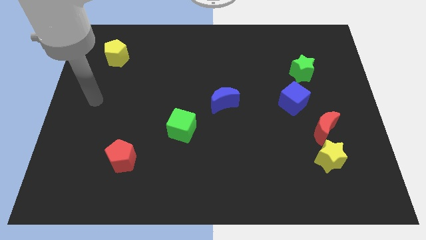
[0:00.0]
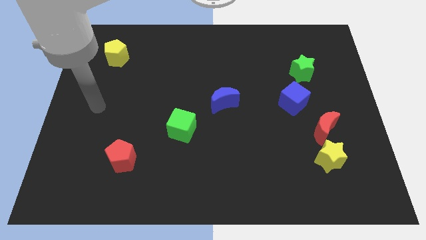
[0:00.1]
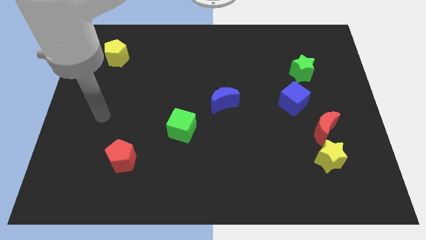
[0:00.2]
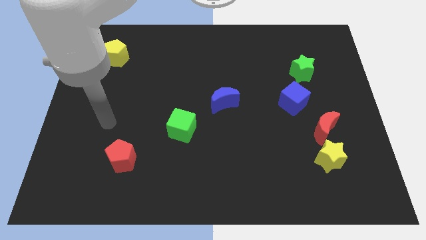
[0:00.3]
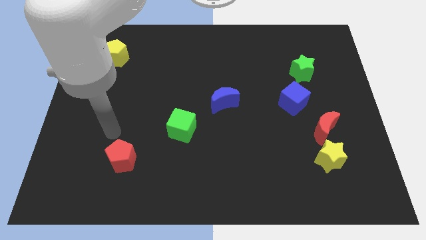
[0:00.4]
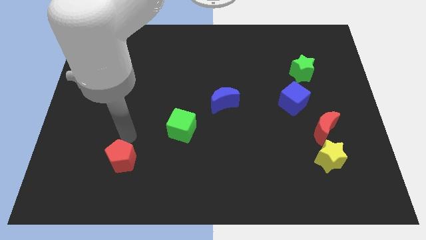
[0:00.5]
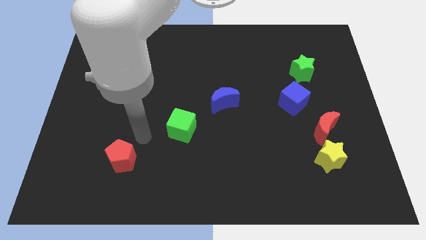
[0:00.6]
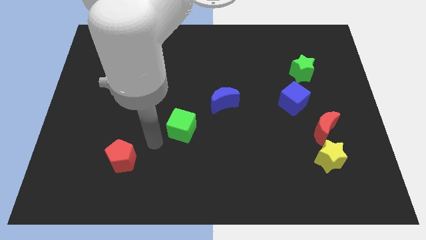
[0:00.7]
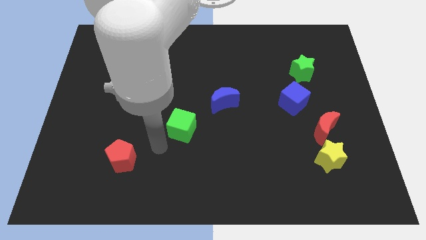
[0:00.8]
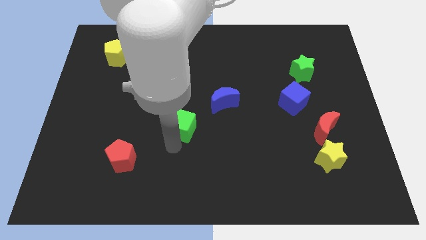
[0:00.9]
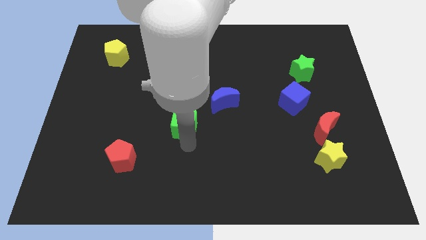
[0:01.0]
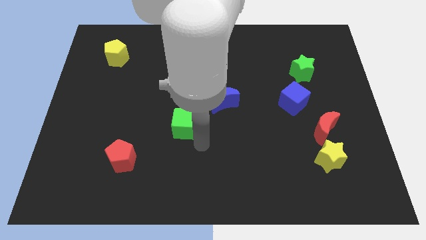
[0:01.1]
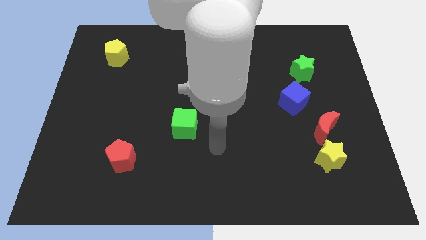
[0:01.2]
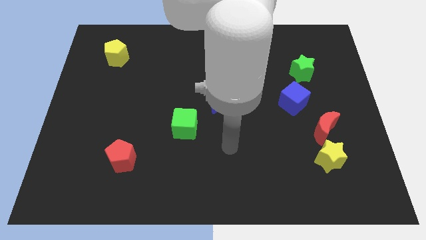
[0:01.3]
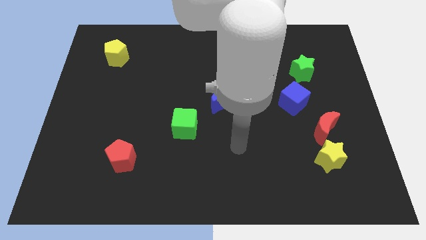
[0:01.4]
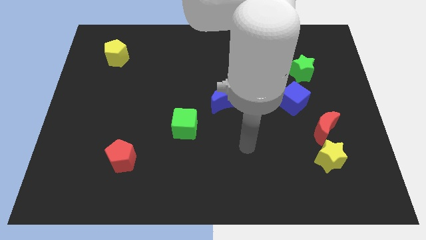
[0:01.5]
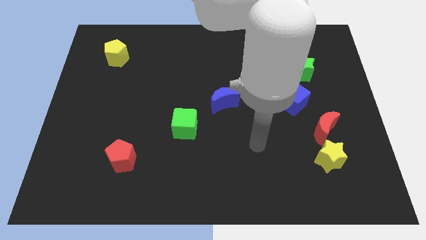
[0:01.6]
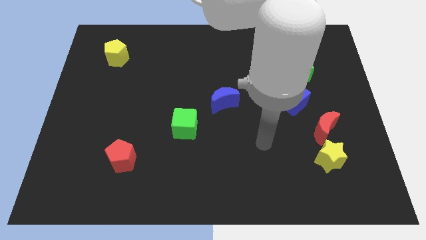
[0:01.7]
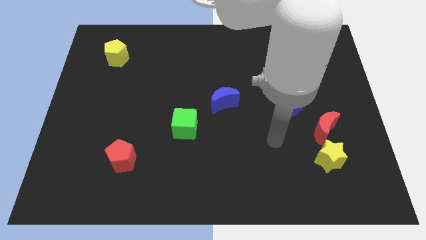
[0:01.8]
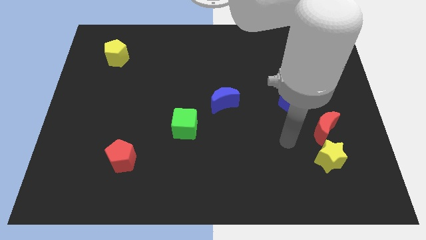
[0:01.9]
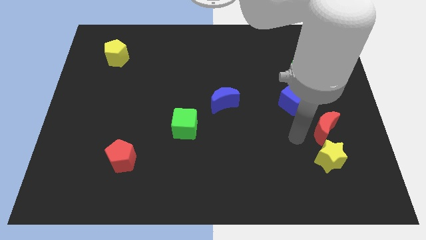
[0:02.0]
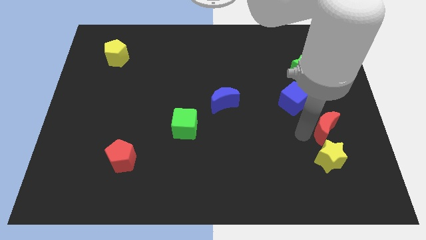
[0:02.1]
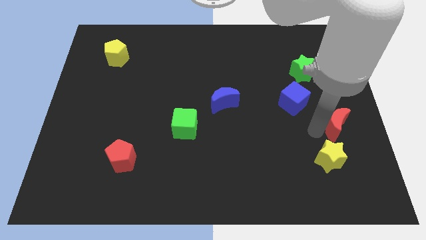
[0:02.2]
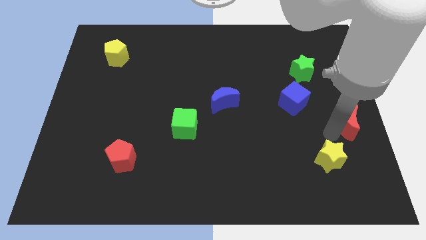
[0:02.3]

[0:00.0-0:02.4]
move the yellow star away from the red moon

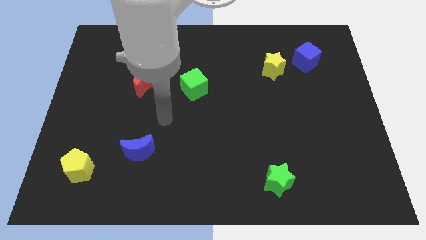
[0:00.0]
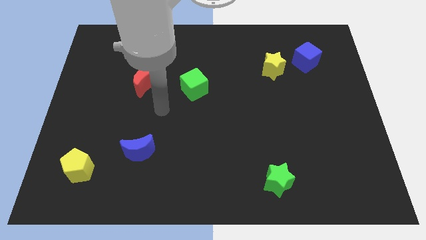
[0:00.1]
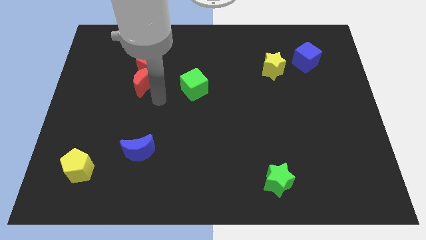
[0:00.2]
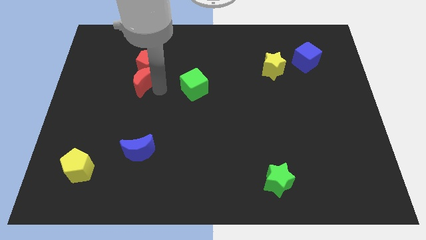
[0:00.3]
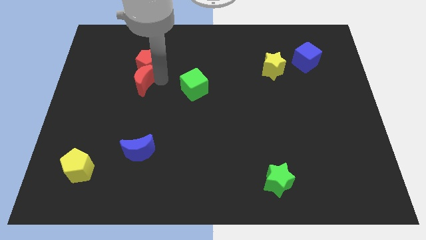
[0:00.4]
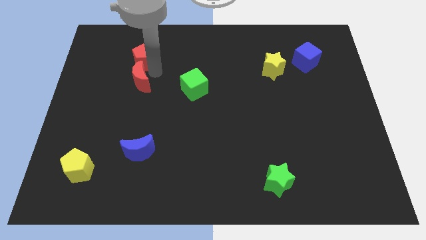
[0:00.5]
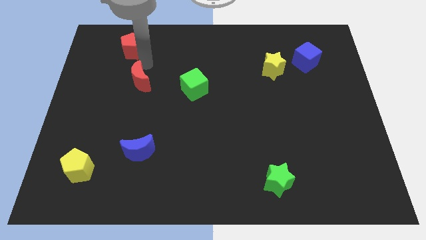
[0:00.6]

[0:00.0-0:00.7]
separate the red moon from the red pentagon

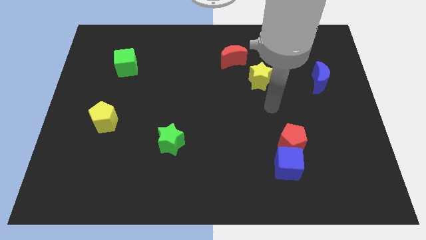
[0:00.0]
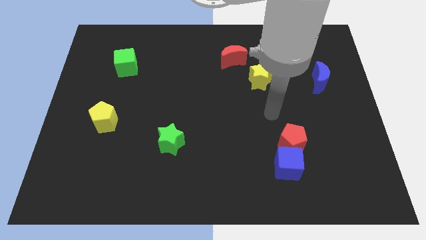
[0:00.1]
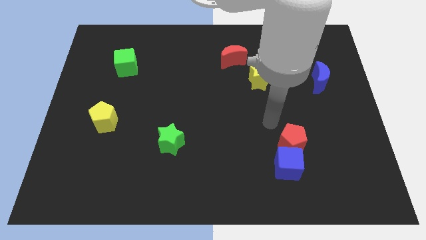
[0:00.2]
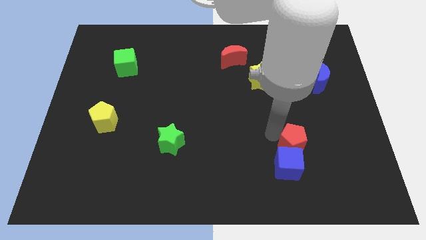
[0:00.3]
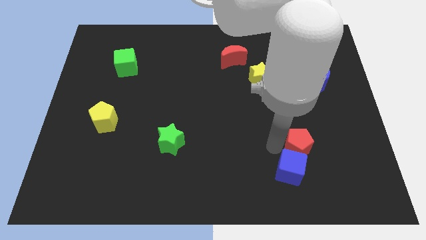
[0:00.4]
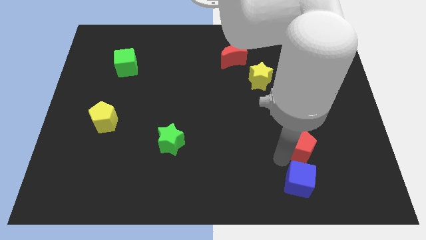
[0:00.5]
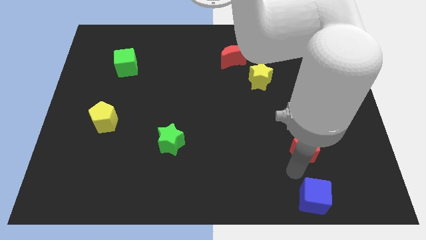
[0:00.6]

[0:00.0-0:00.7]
pull the red pentagon apart from the blue cube

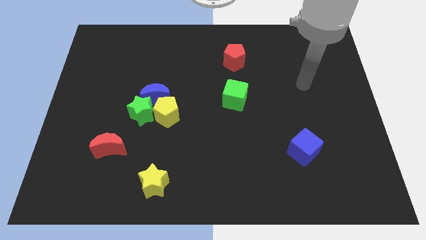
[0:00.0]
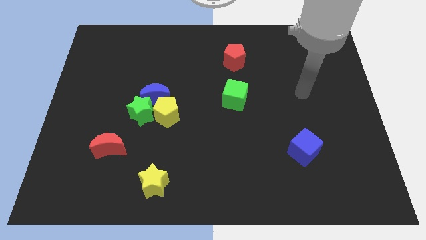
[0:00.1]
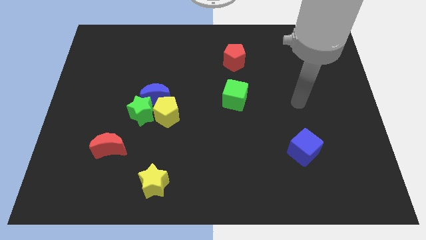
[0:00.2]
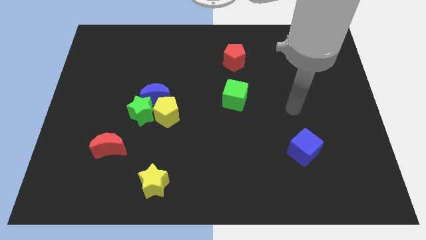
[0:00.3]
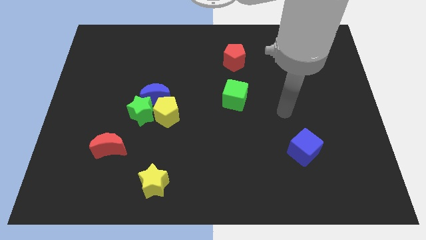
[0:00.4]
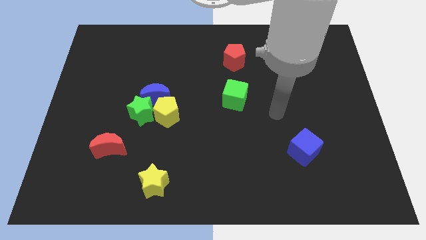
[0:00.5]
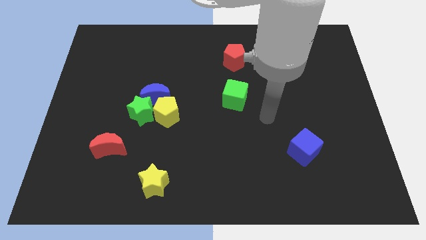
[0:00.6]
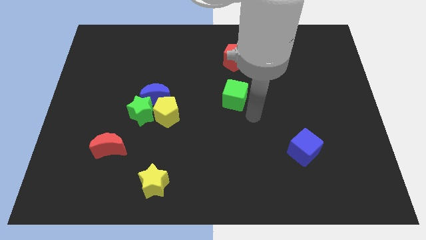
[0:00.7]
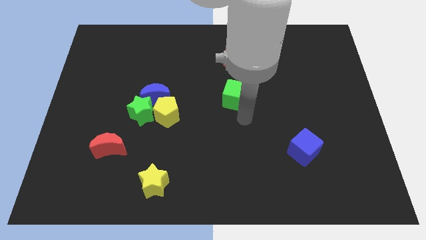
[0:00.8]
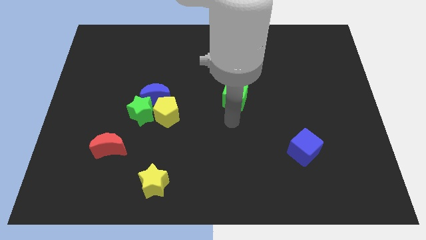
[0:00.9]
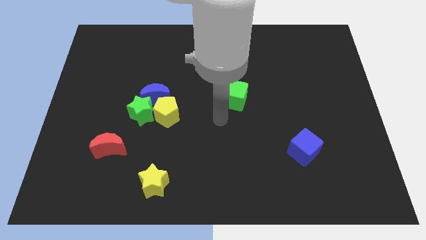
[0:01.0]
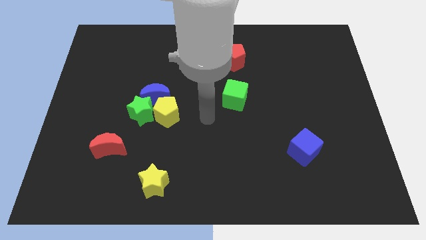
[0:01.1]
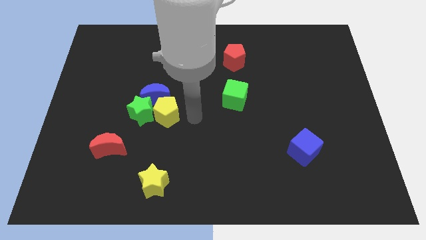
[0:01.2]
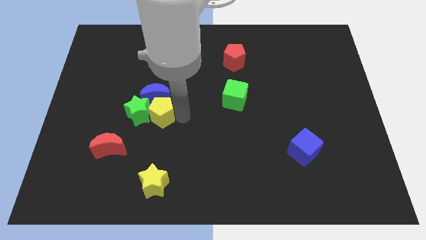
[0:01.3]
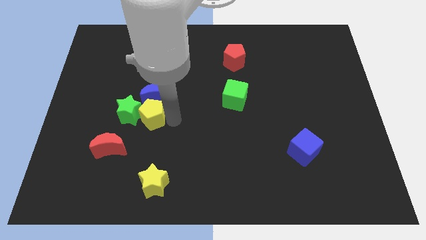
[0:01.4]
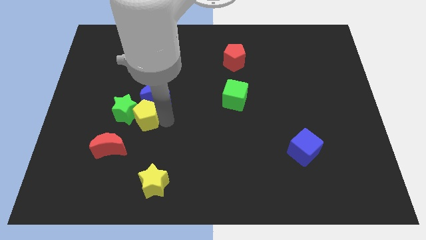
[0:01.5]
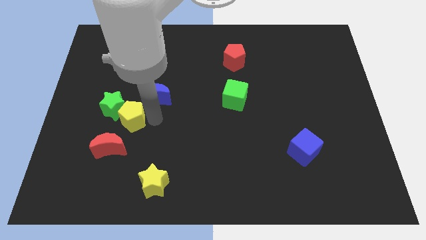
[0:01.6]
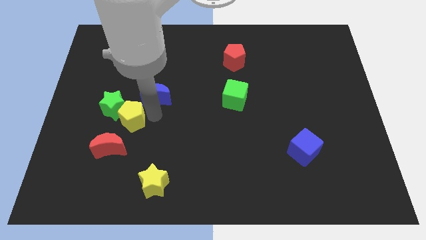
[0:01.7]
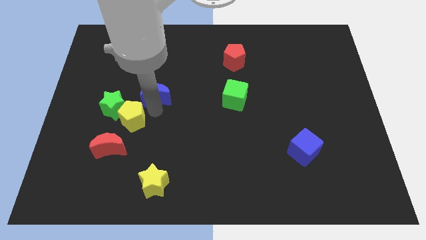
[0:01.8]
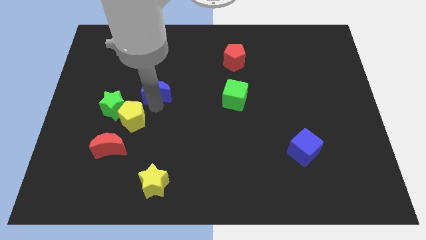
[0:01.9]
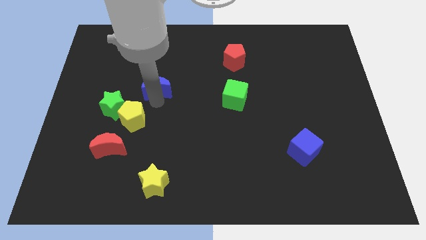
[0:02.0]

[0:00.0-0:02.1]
move the blue moon away from the green star and yellow pentagon

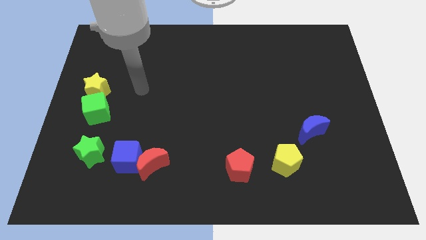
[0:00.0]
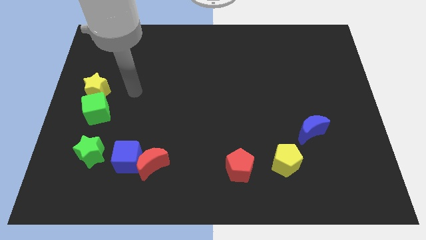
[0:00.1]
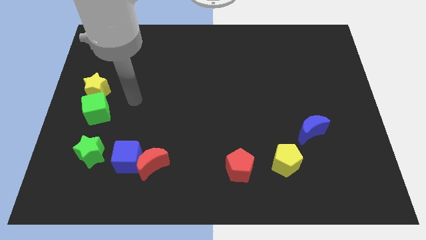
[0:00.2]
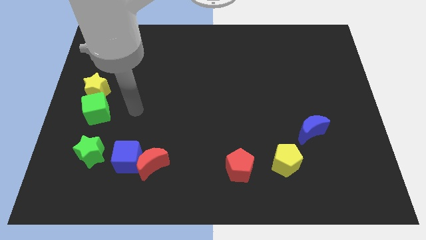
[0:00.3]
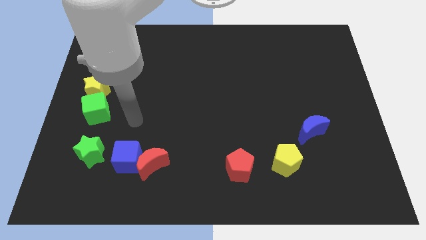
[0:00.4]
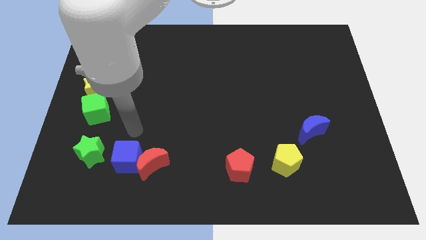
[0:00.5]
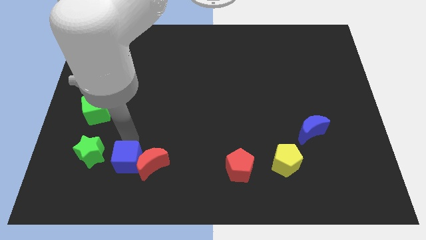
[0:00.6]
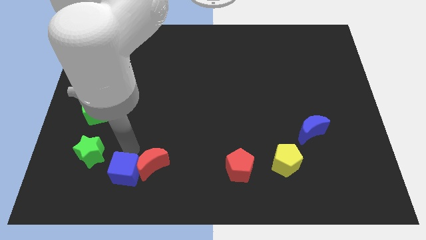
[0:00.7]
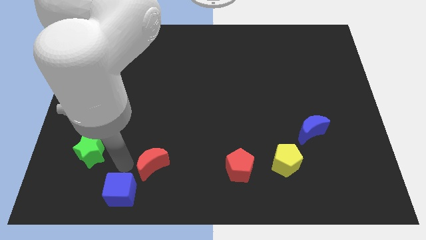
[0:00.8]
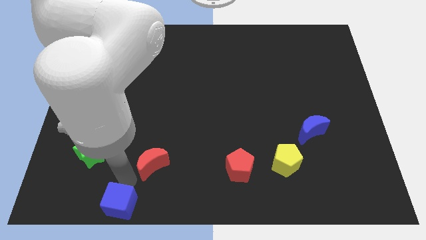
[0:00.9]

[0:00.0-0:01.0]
separate the red moon from the blue cube

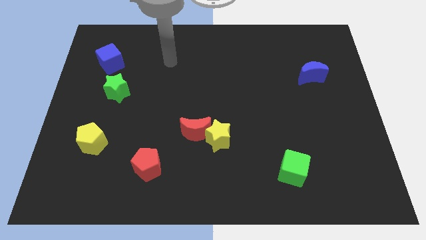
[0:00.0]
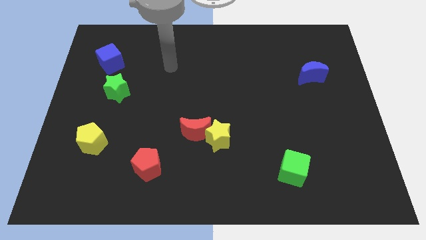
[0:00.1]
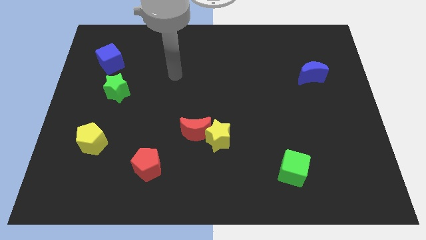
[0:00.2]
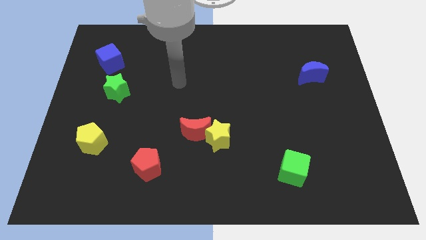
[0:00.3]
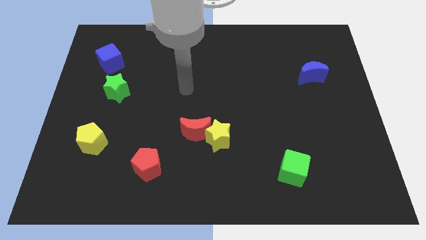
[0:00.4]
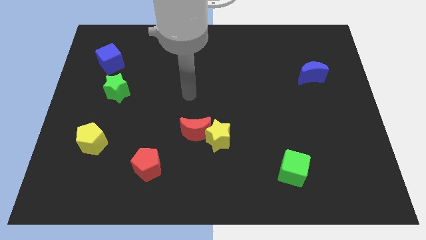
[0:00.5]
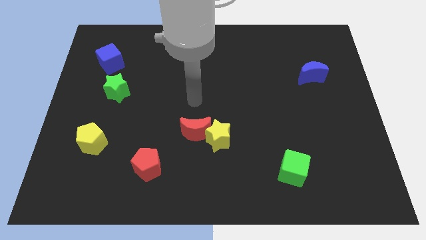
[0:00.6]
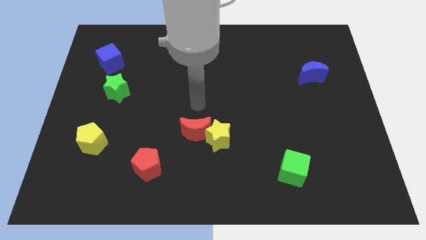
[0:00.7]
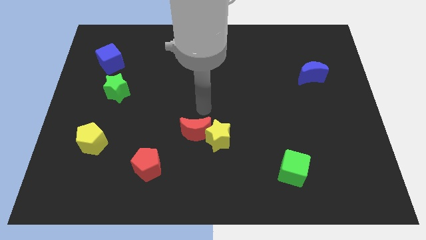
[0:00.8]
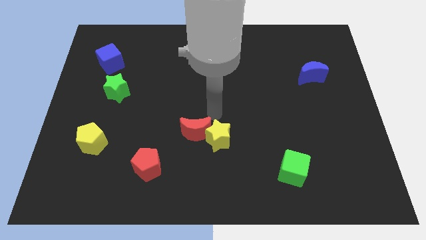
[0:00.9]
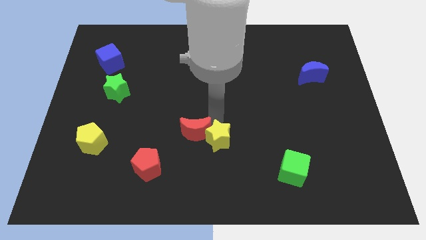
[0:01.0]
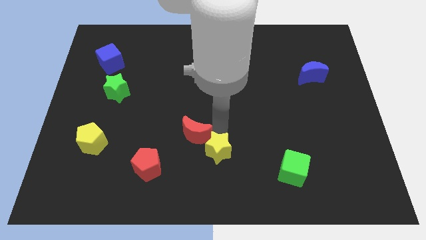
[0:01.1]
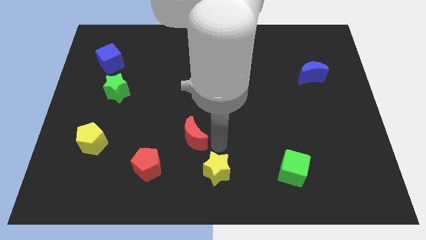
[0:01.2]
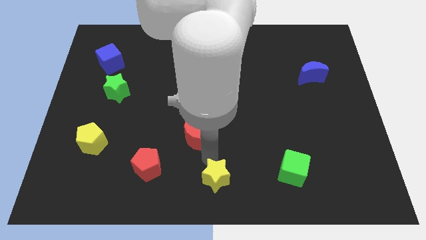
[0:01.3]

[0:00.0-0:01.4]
separate the red moon from the yellow star

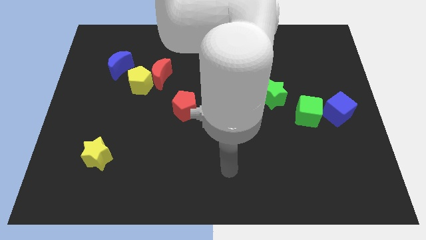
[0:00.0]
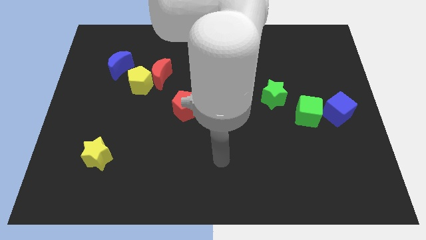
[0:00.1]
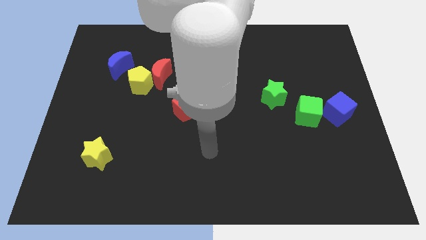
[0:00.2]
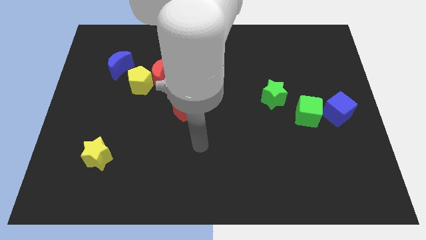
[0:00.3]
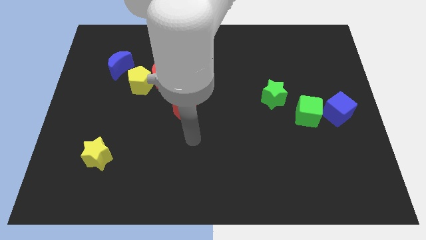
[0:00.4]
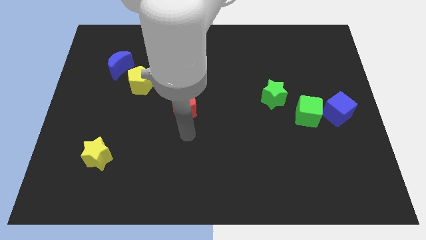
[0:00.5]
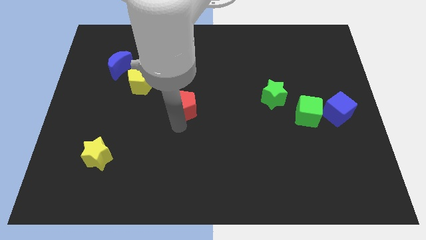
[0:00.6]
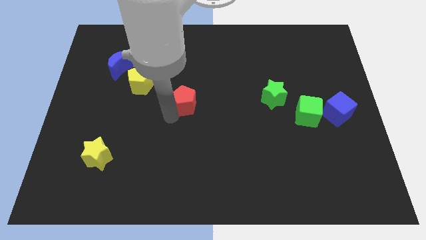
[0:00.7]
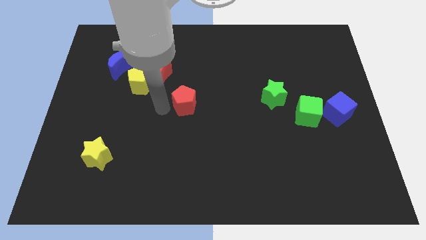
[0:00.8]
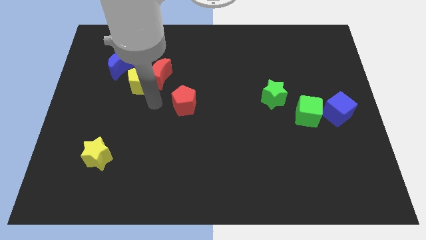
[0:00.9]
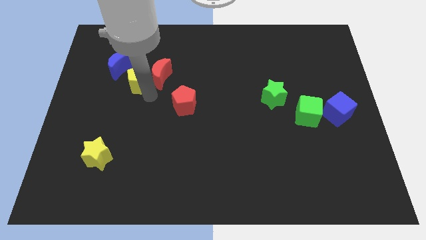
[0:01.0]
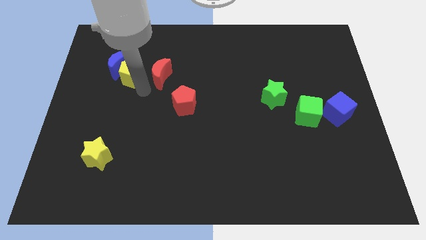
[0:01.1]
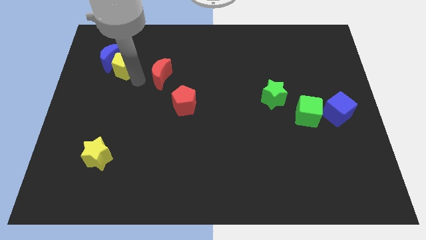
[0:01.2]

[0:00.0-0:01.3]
move the red moon away from the yellow pentagon
